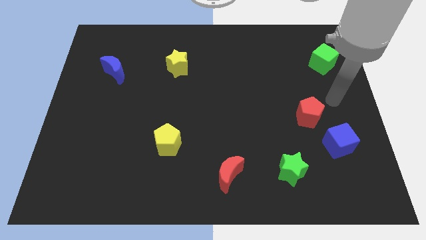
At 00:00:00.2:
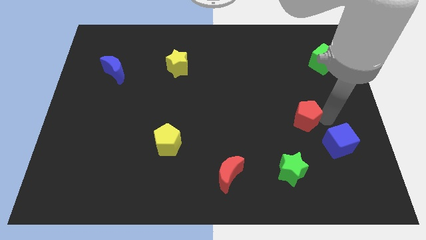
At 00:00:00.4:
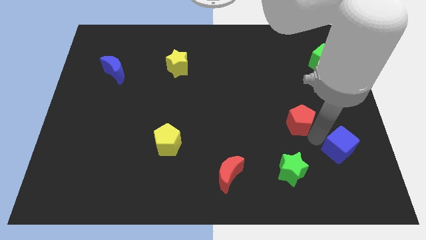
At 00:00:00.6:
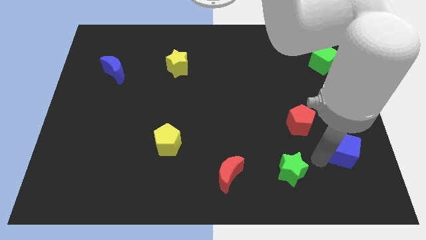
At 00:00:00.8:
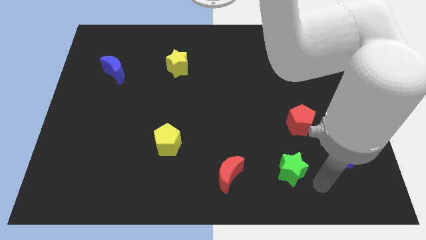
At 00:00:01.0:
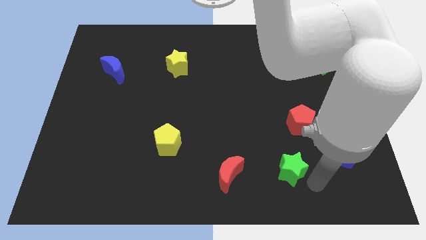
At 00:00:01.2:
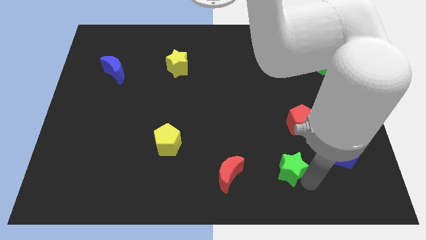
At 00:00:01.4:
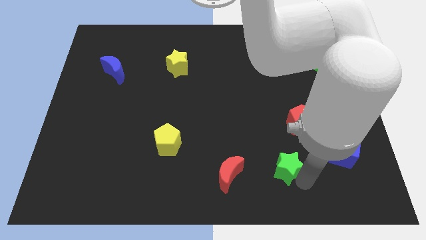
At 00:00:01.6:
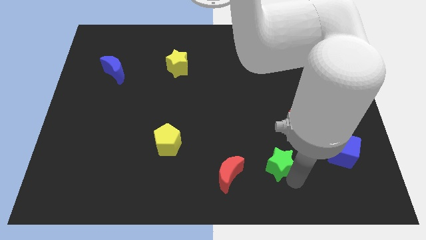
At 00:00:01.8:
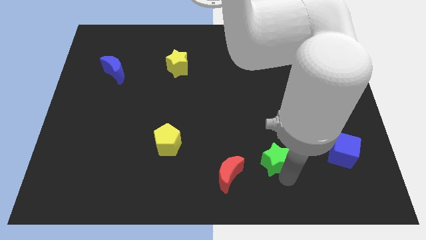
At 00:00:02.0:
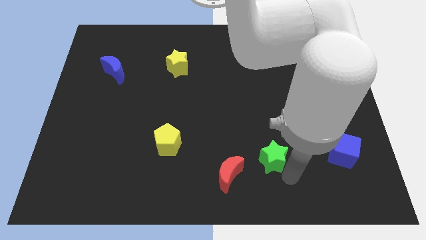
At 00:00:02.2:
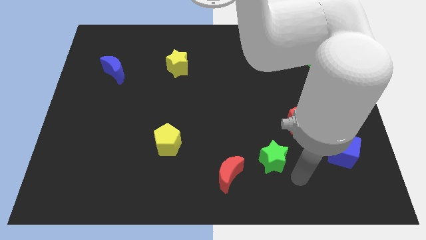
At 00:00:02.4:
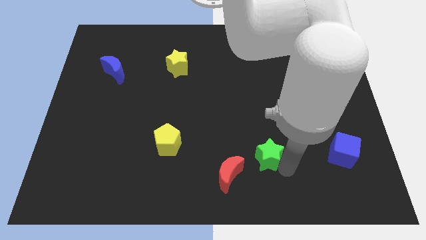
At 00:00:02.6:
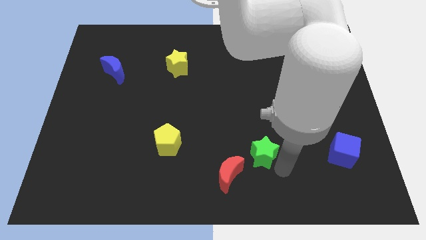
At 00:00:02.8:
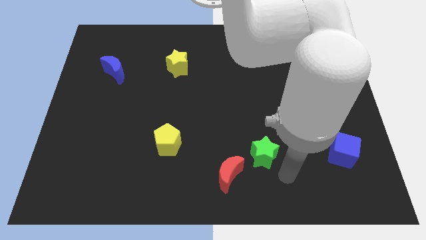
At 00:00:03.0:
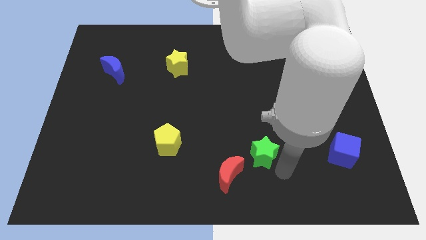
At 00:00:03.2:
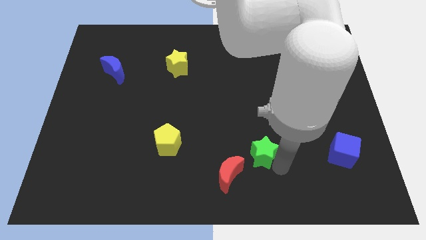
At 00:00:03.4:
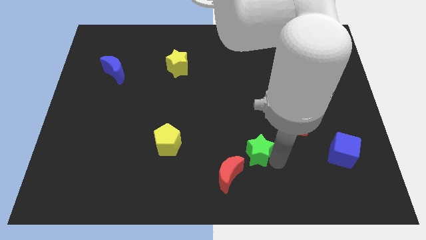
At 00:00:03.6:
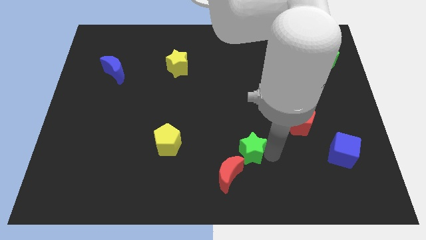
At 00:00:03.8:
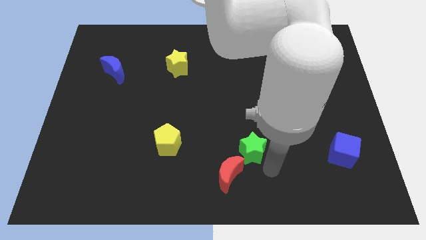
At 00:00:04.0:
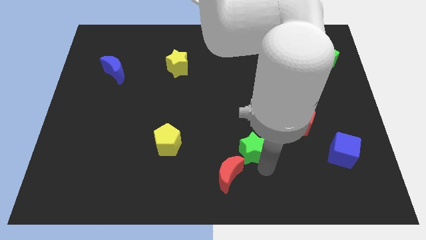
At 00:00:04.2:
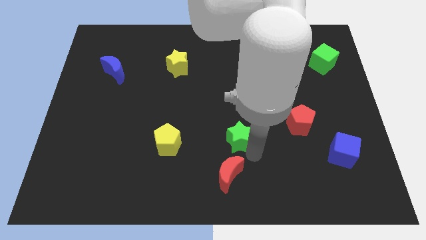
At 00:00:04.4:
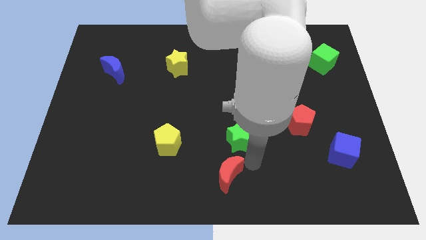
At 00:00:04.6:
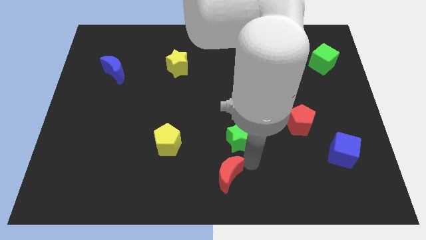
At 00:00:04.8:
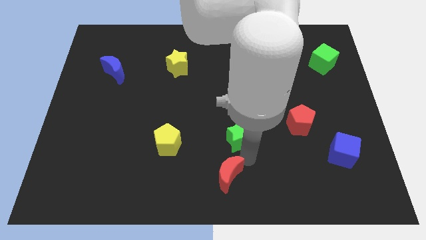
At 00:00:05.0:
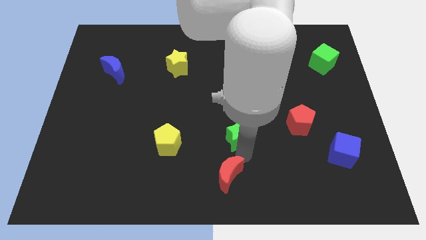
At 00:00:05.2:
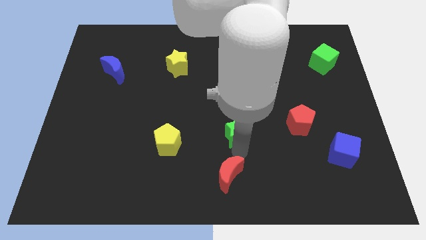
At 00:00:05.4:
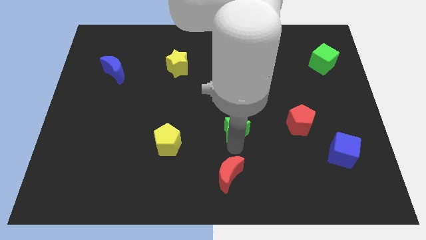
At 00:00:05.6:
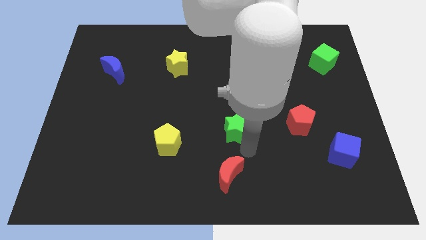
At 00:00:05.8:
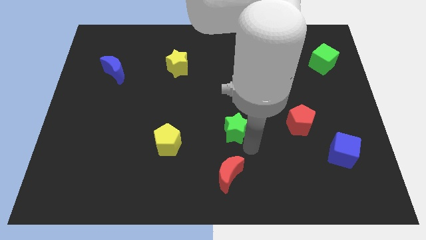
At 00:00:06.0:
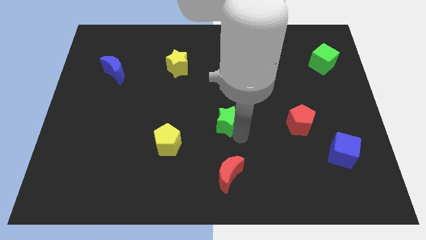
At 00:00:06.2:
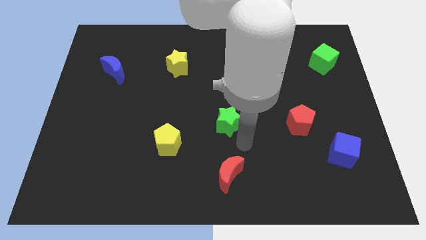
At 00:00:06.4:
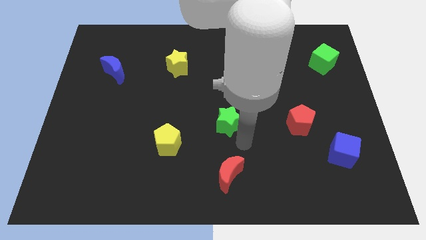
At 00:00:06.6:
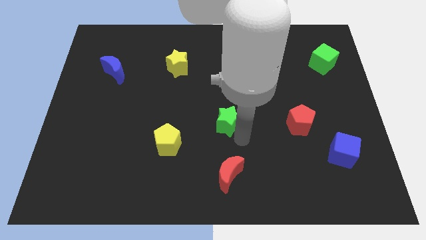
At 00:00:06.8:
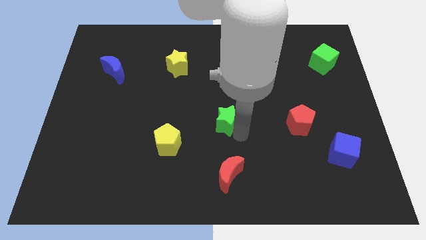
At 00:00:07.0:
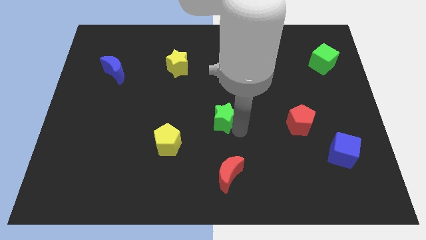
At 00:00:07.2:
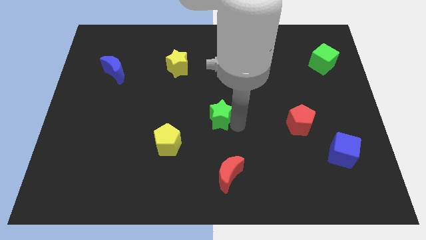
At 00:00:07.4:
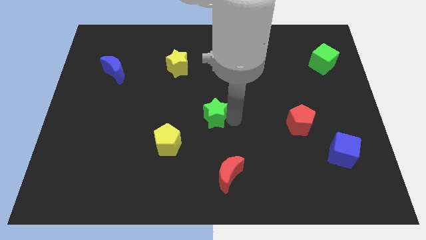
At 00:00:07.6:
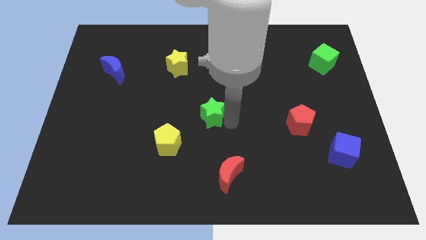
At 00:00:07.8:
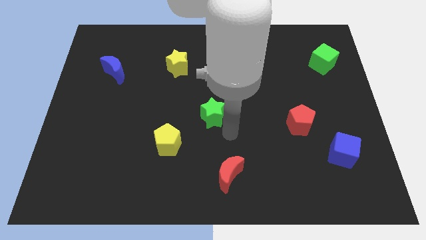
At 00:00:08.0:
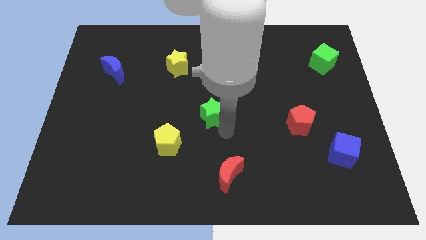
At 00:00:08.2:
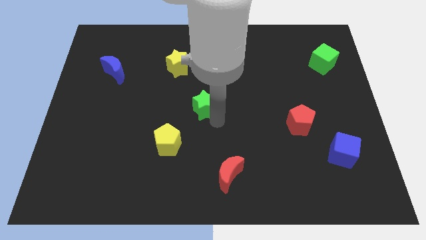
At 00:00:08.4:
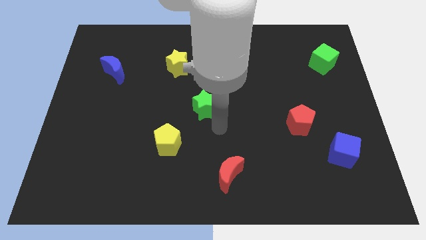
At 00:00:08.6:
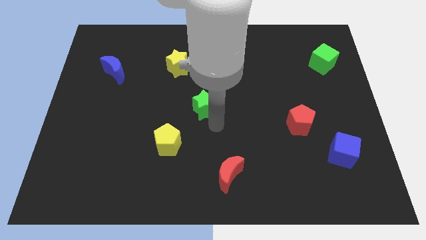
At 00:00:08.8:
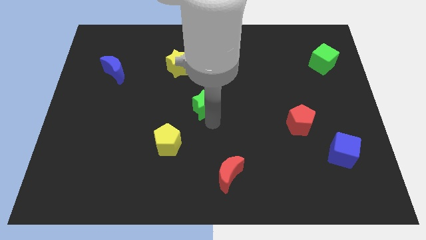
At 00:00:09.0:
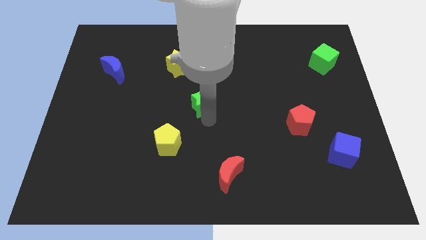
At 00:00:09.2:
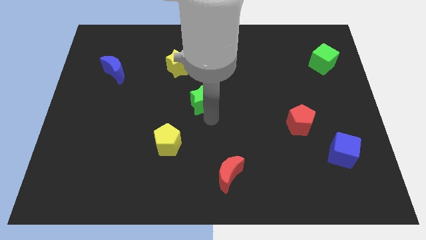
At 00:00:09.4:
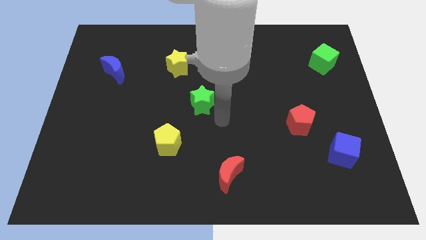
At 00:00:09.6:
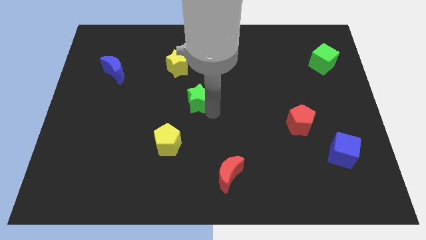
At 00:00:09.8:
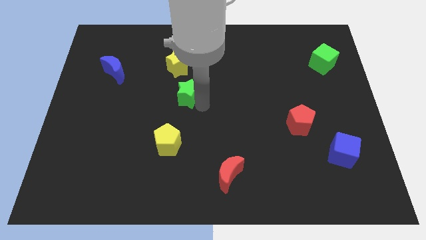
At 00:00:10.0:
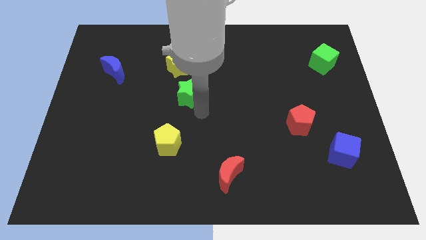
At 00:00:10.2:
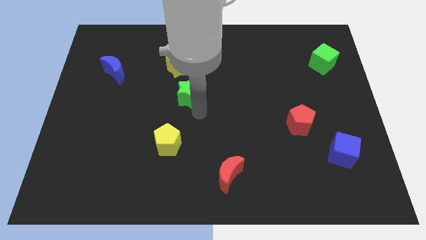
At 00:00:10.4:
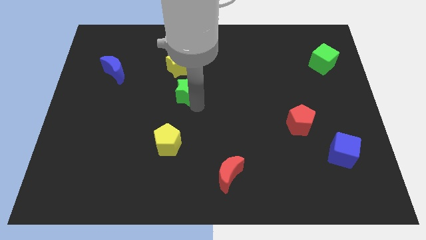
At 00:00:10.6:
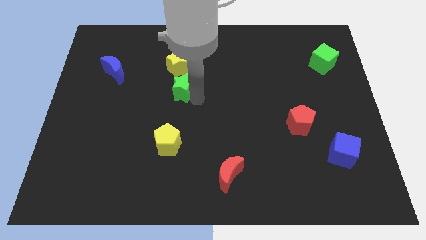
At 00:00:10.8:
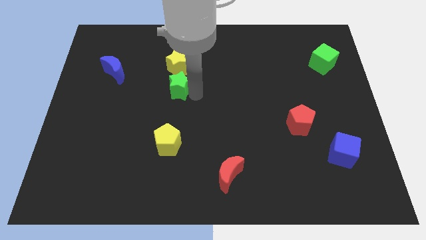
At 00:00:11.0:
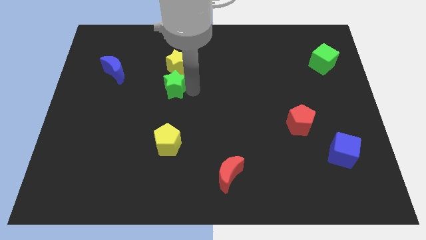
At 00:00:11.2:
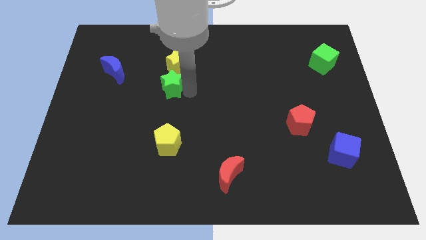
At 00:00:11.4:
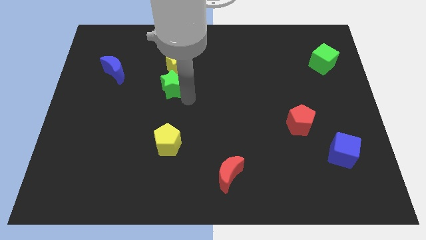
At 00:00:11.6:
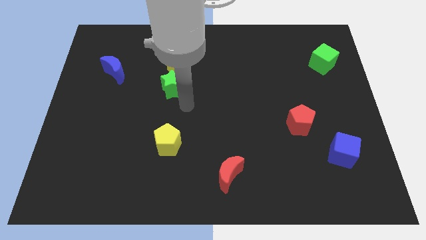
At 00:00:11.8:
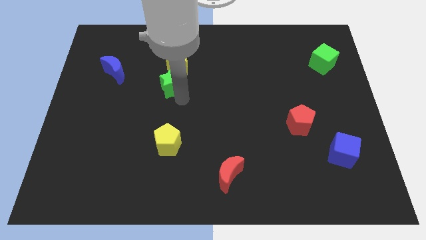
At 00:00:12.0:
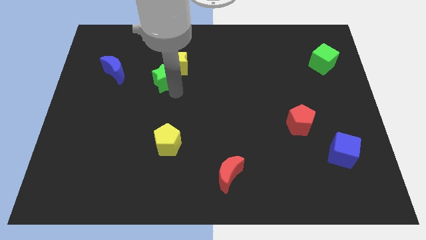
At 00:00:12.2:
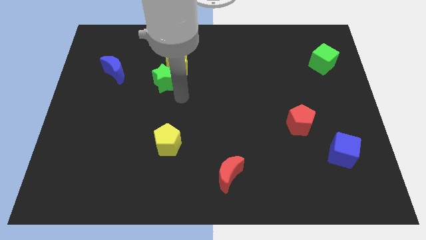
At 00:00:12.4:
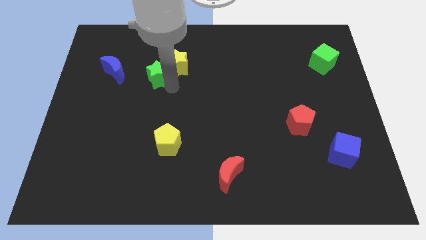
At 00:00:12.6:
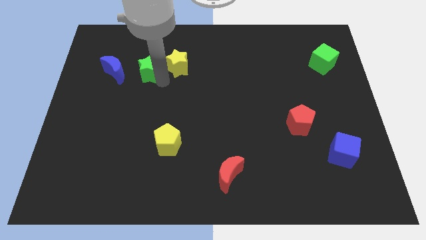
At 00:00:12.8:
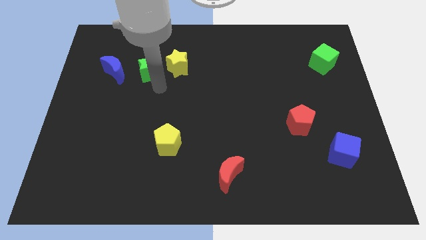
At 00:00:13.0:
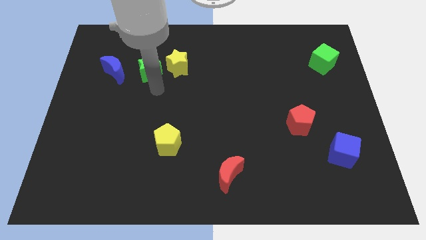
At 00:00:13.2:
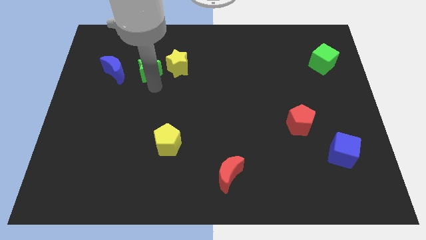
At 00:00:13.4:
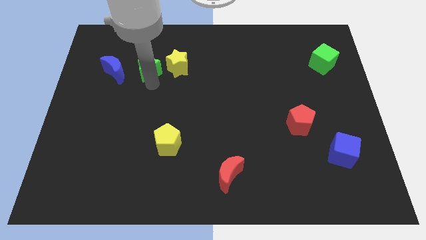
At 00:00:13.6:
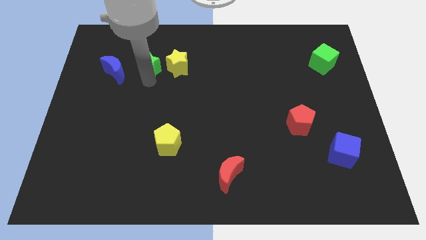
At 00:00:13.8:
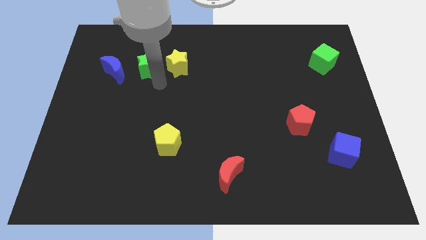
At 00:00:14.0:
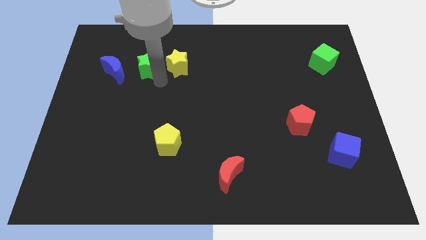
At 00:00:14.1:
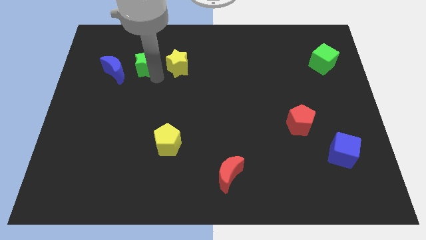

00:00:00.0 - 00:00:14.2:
put the green star diagonally up and to the right of the blue moon
